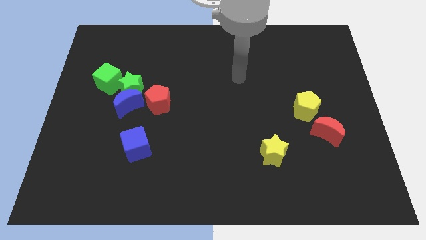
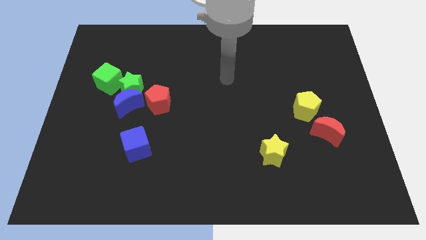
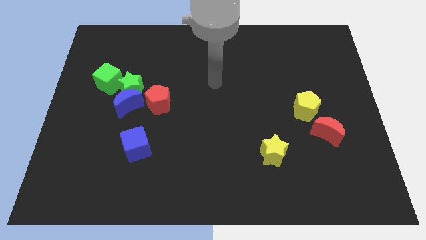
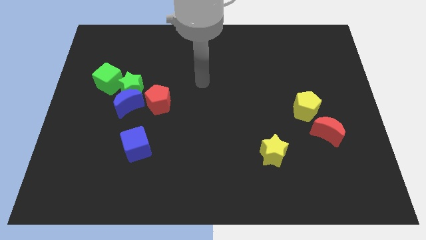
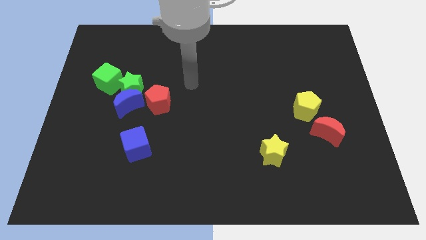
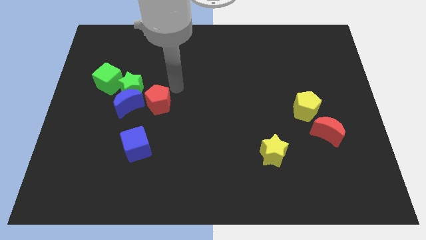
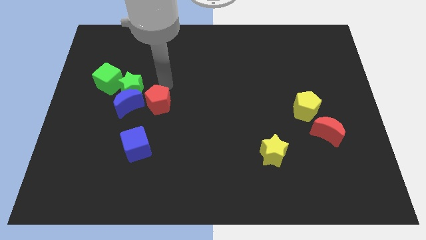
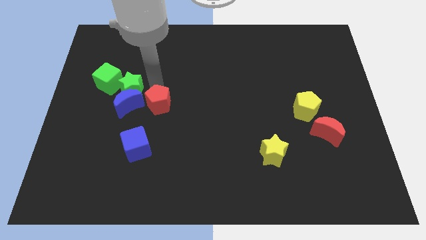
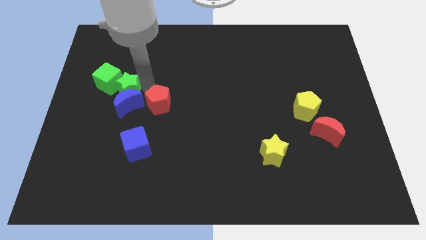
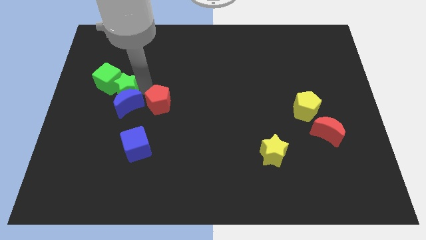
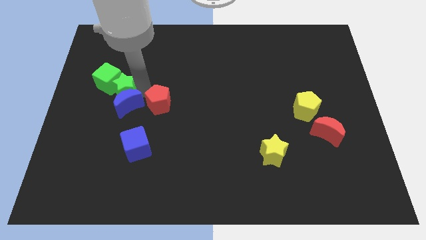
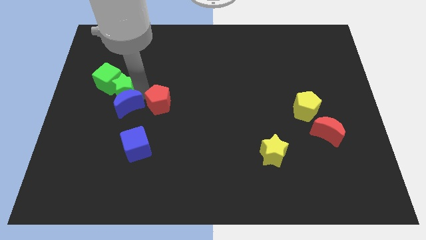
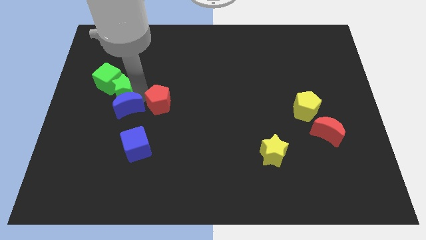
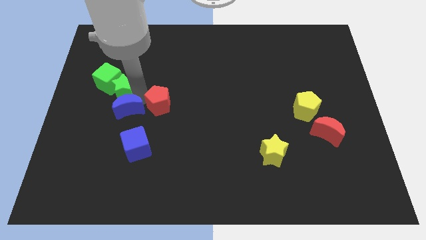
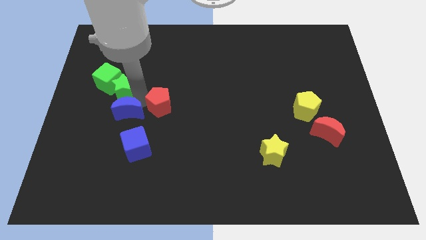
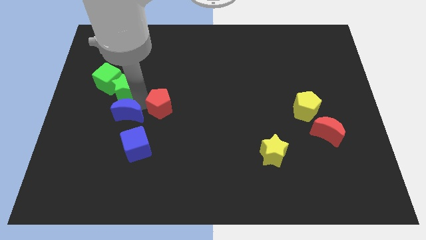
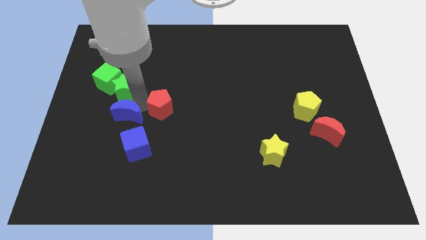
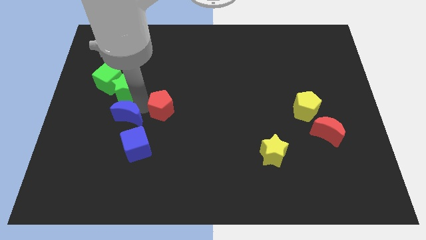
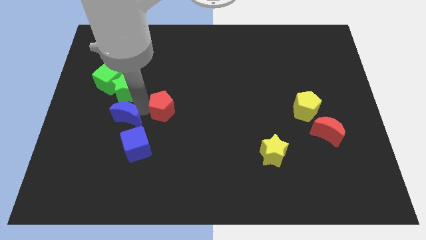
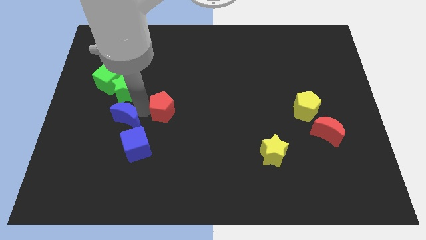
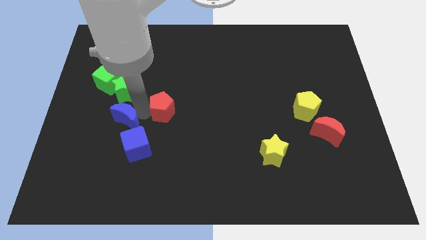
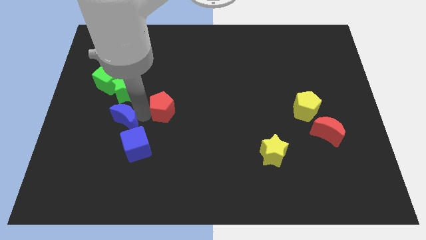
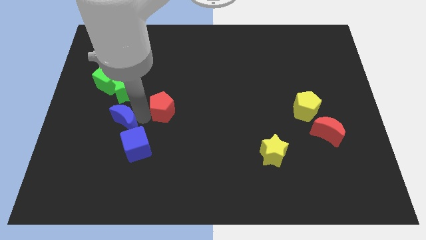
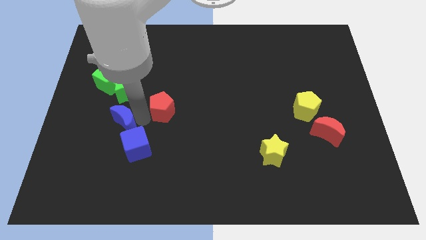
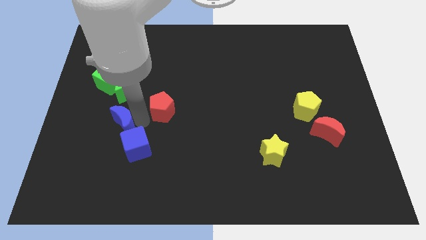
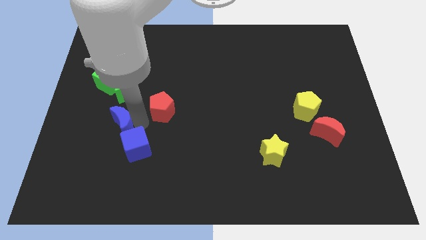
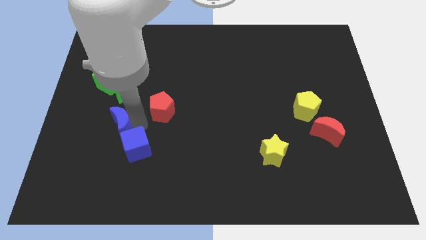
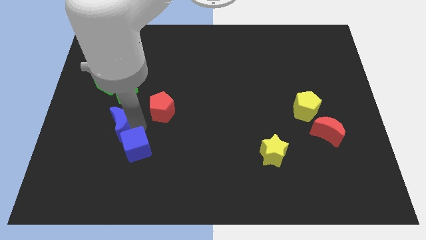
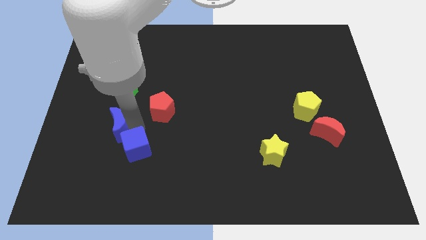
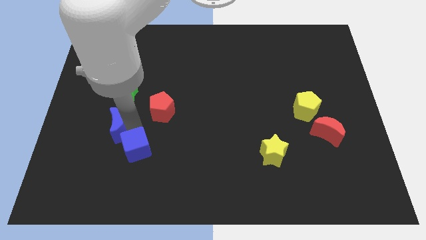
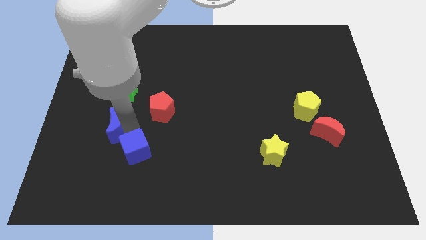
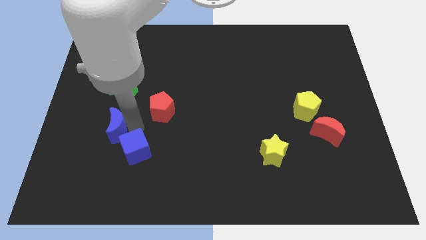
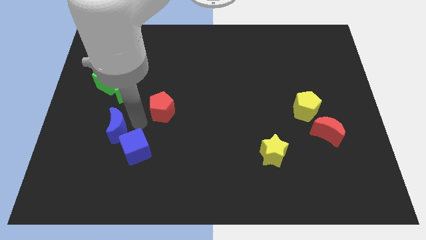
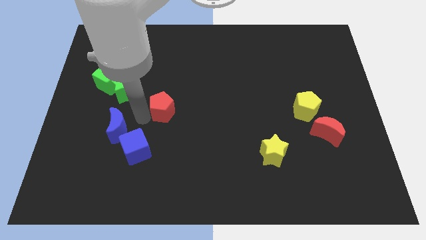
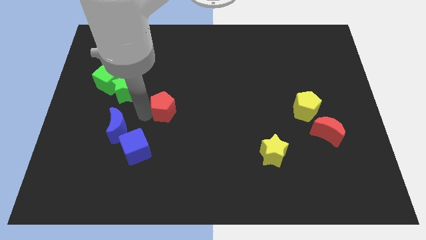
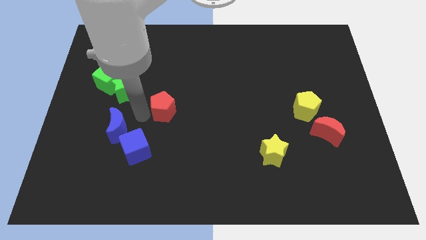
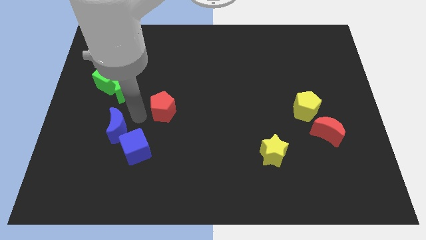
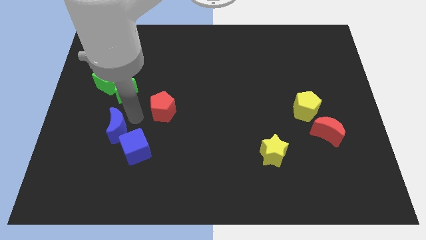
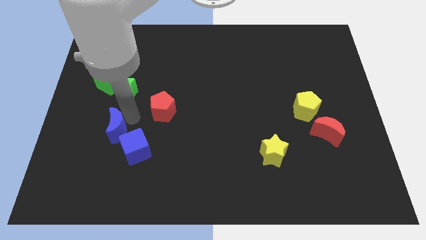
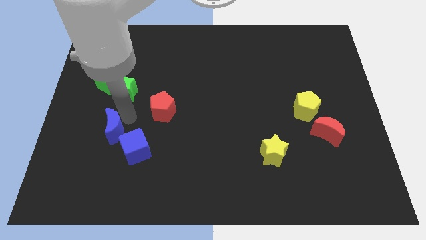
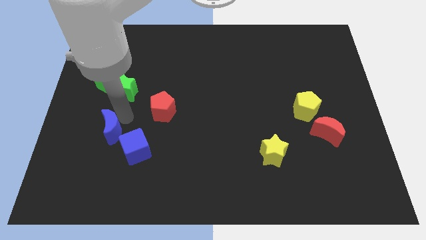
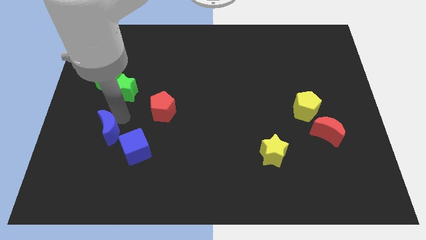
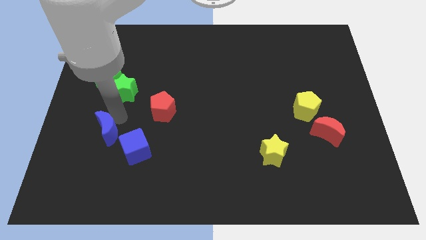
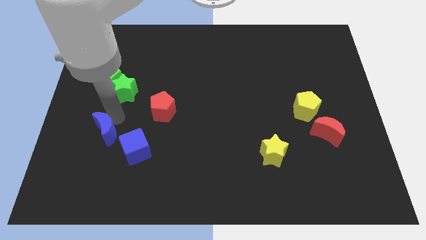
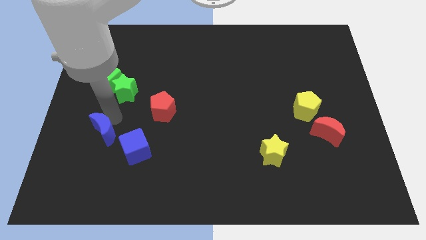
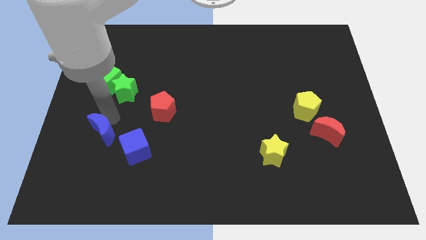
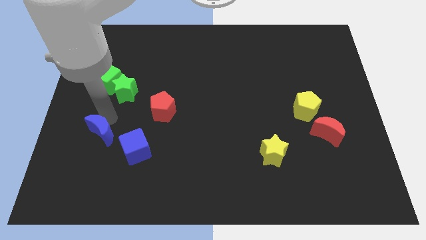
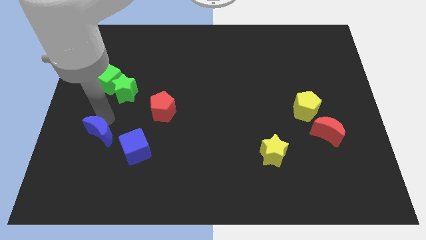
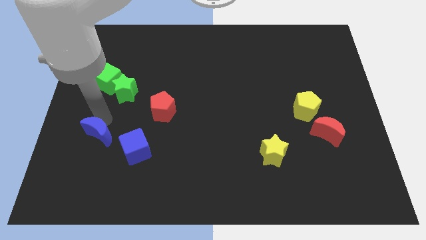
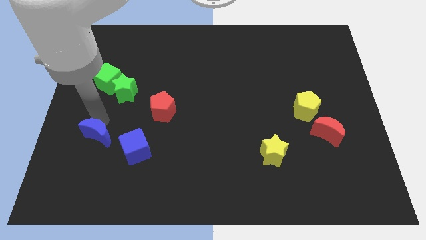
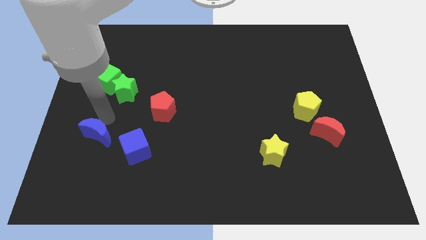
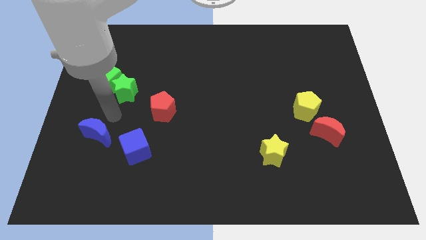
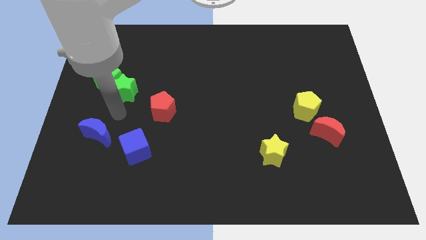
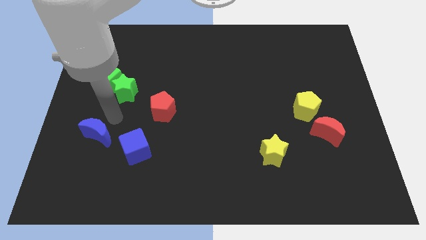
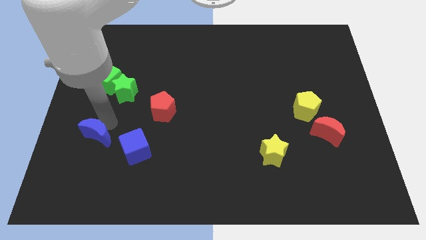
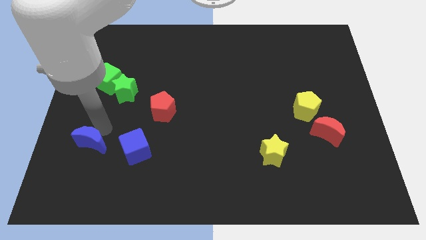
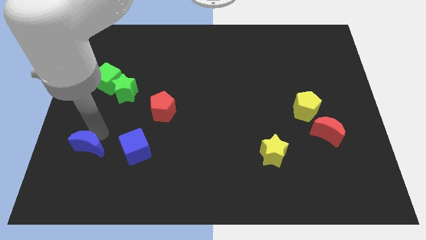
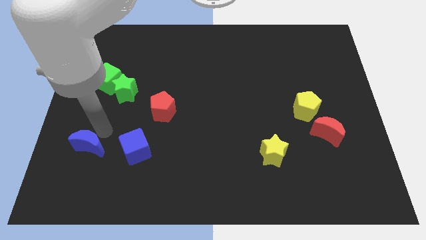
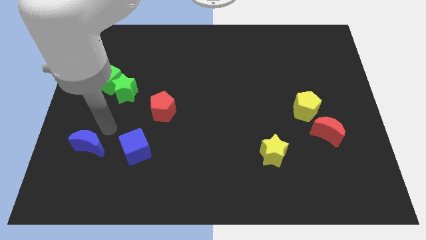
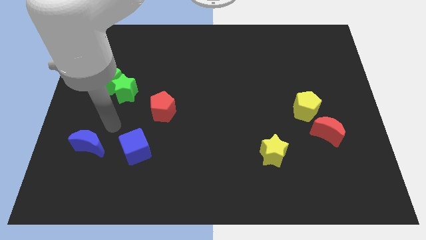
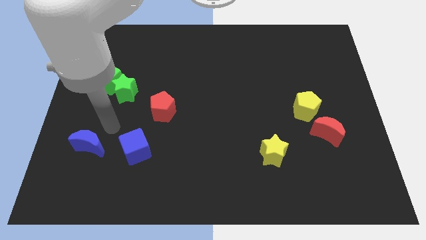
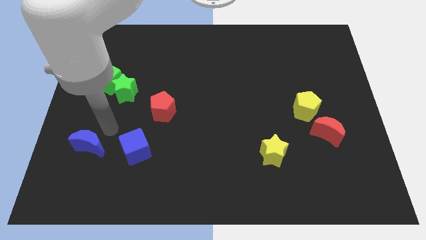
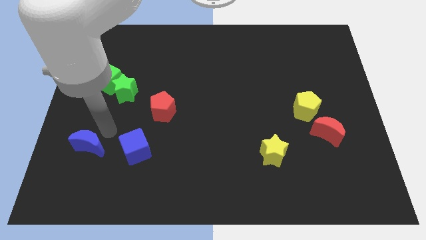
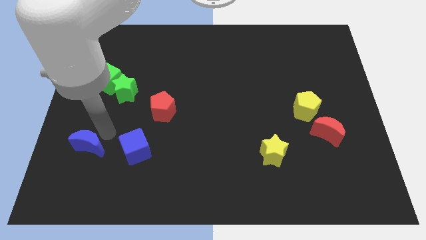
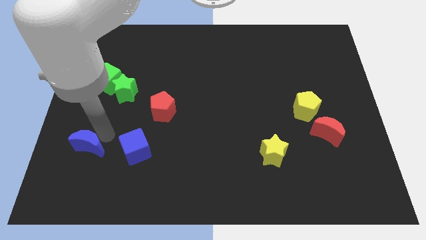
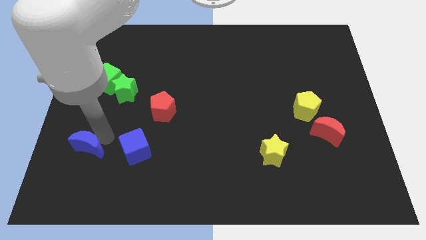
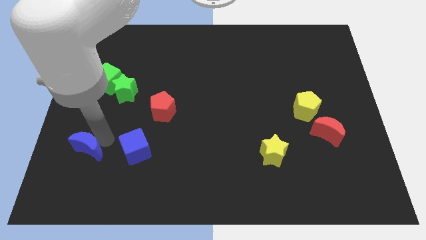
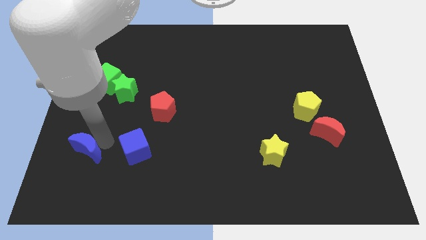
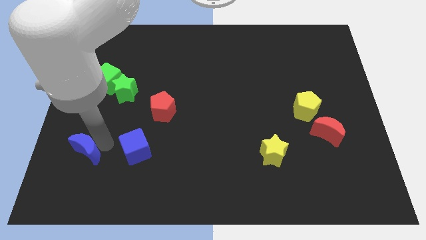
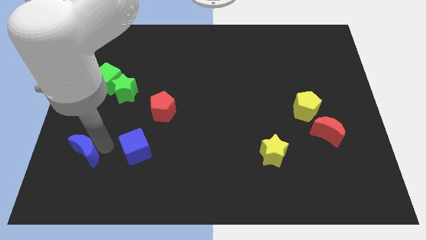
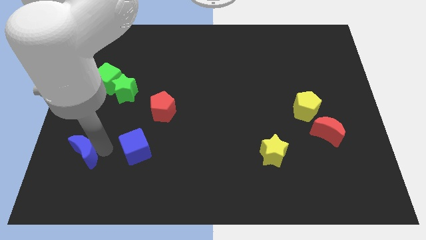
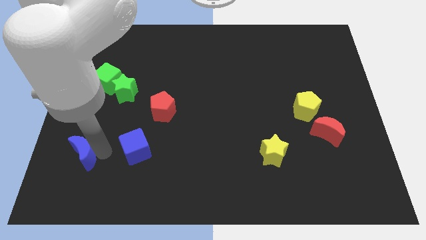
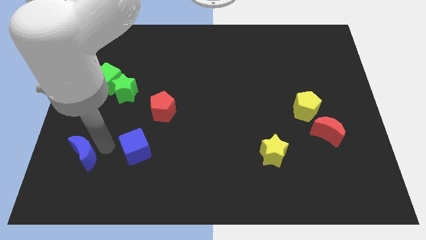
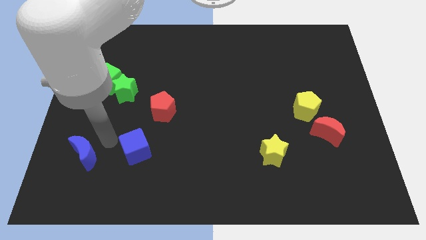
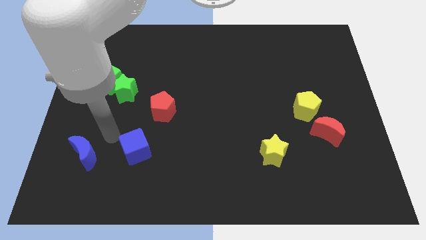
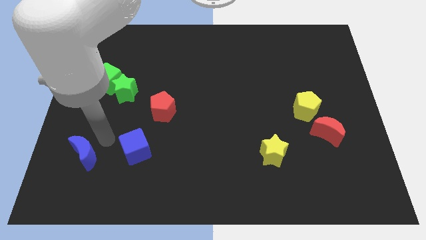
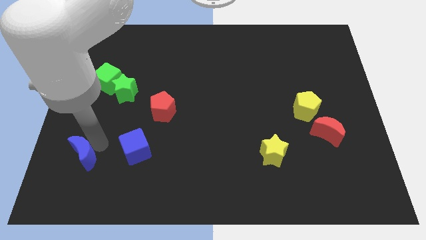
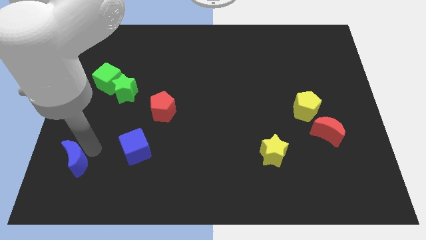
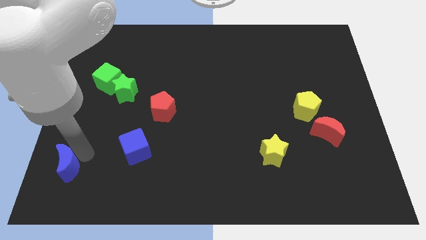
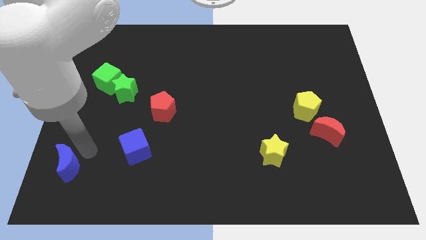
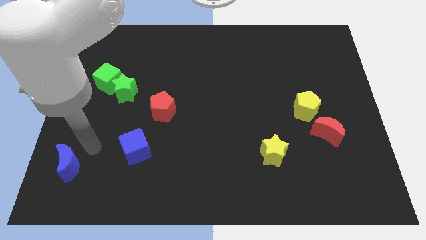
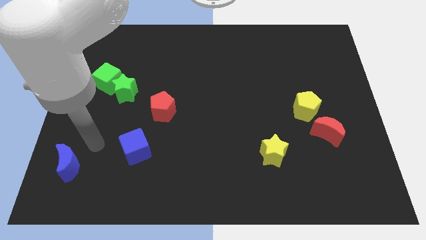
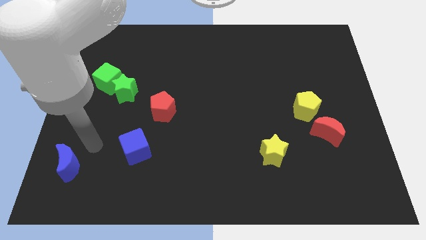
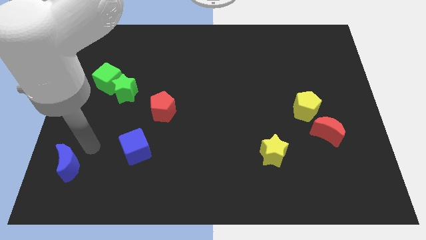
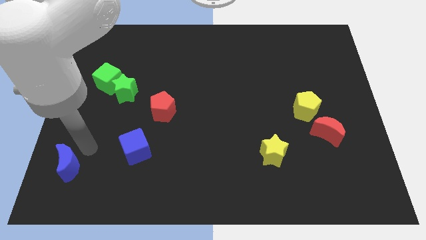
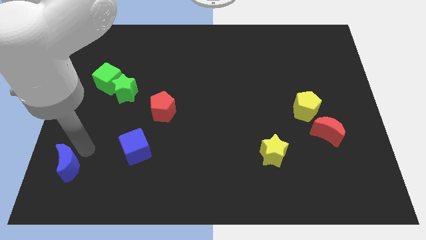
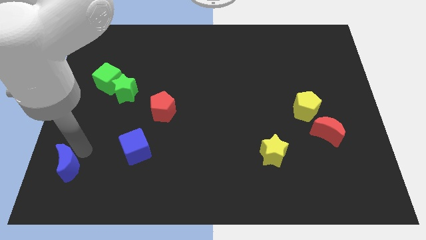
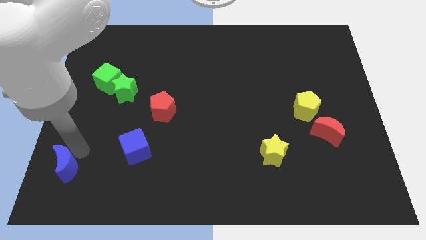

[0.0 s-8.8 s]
push the blue moon to the bottom left corner
